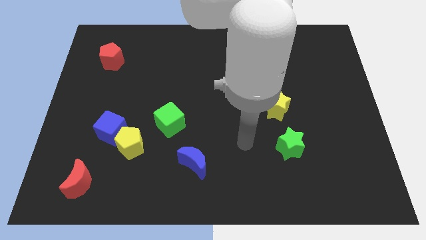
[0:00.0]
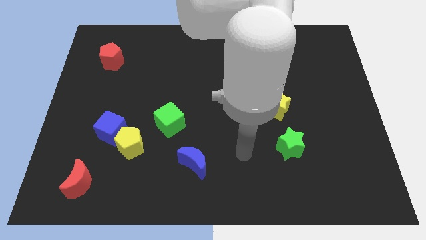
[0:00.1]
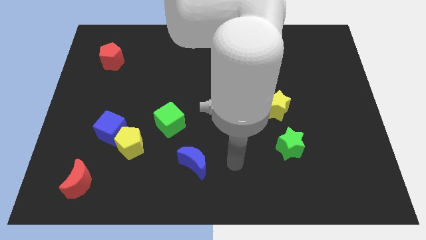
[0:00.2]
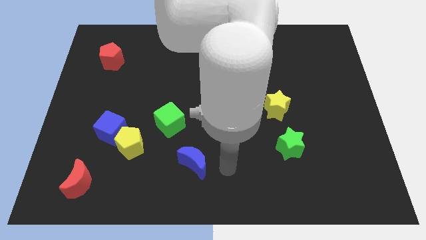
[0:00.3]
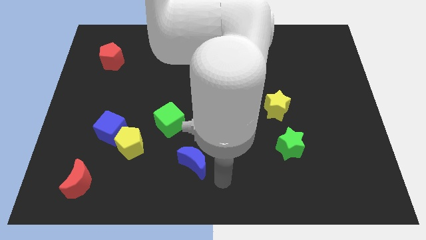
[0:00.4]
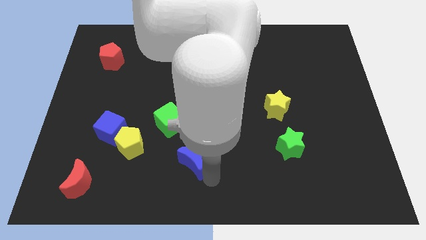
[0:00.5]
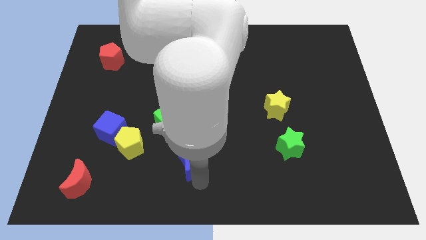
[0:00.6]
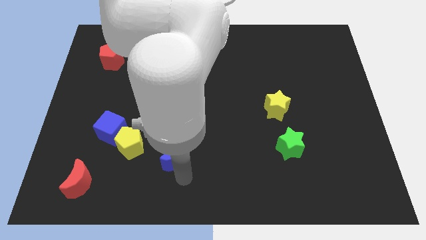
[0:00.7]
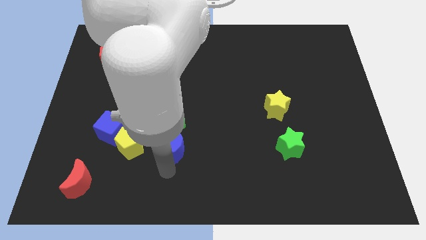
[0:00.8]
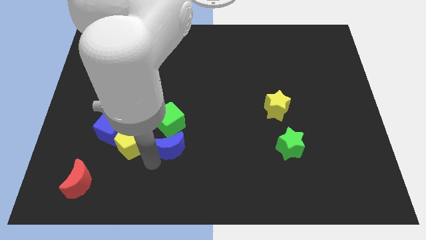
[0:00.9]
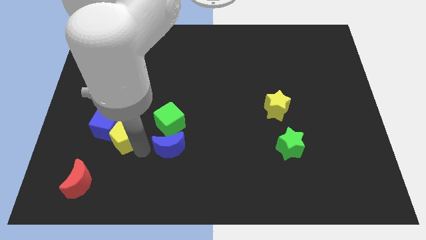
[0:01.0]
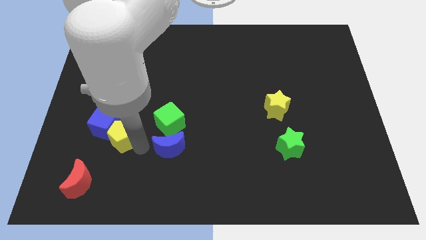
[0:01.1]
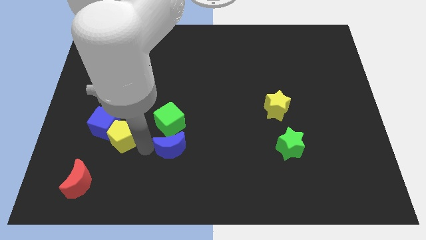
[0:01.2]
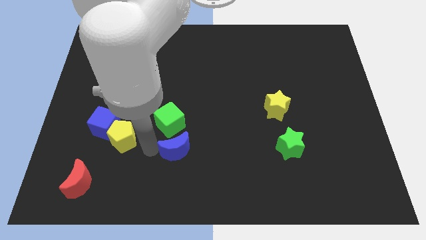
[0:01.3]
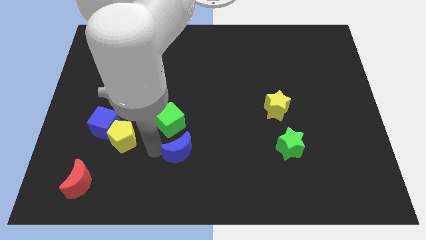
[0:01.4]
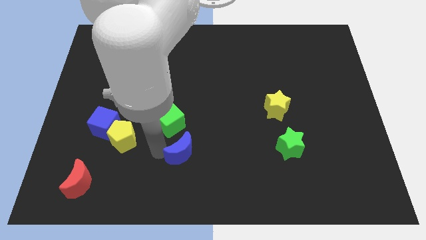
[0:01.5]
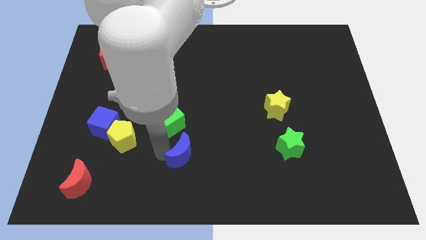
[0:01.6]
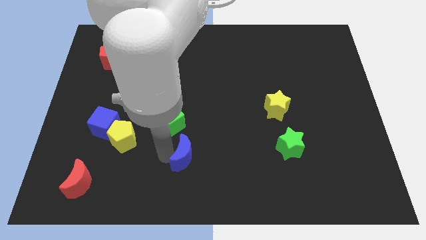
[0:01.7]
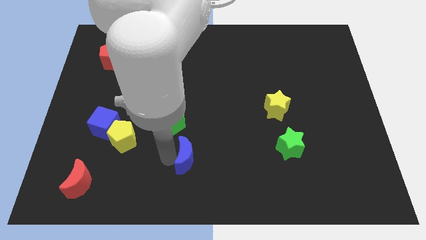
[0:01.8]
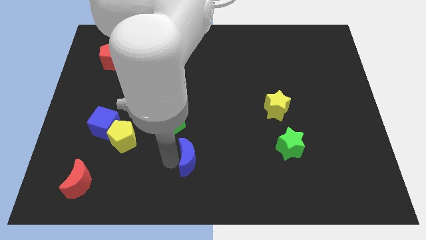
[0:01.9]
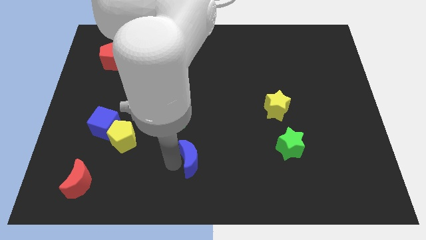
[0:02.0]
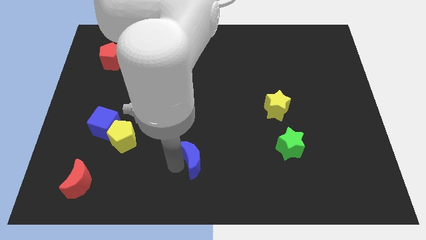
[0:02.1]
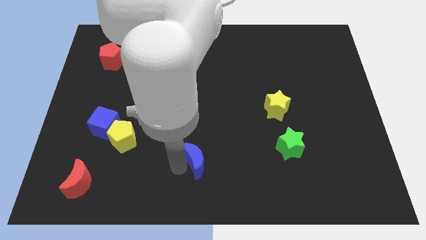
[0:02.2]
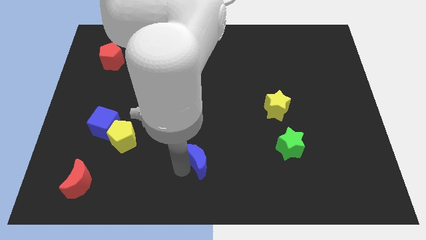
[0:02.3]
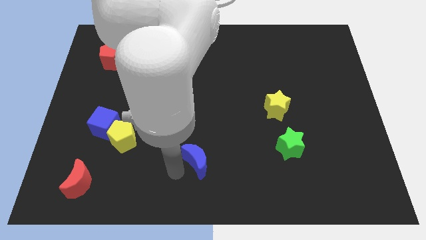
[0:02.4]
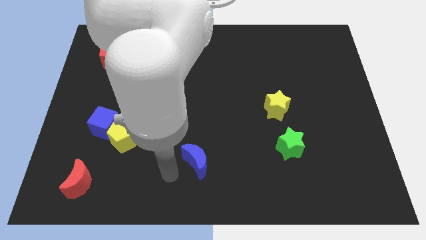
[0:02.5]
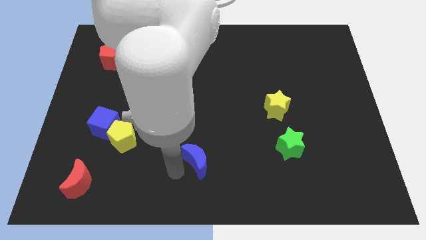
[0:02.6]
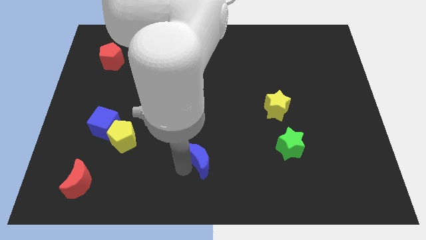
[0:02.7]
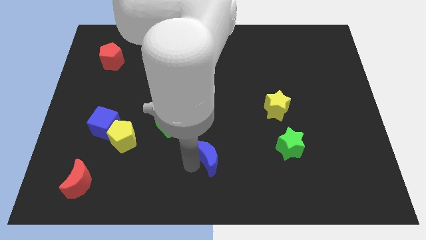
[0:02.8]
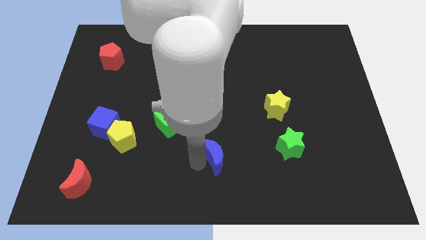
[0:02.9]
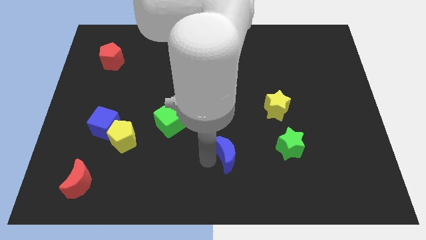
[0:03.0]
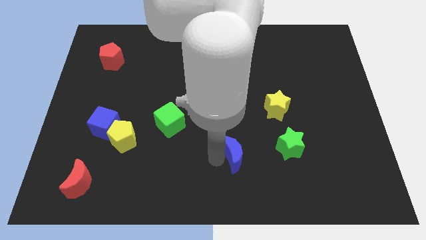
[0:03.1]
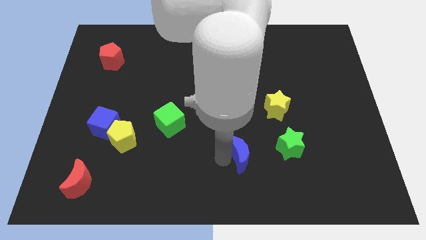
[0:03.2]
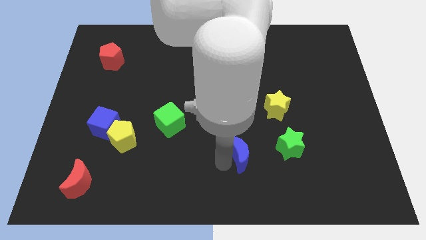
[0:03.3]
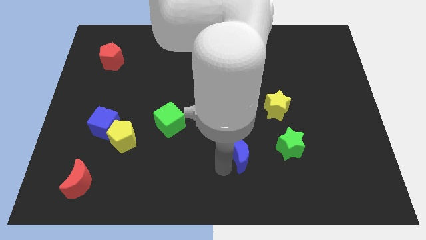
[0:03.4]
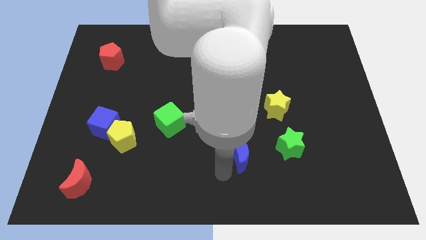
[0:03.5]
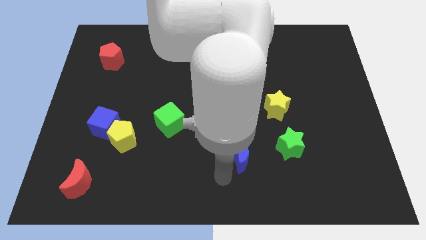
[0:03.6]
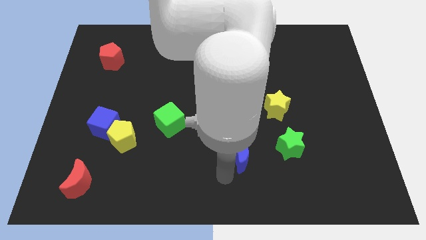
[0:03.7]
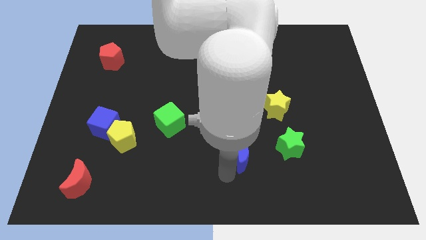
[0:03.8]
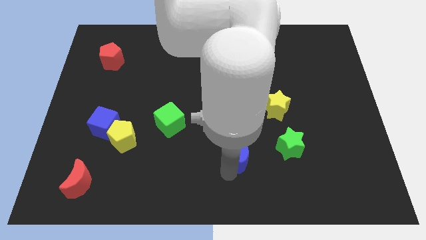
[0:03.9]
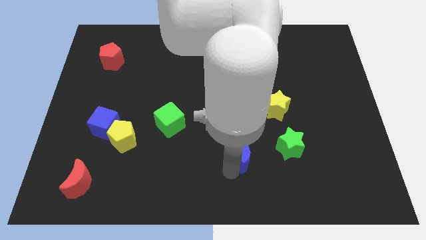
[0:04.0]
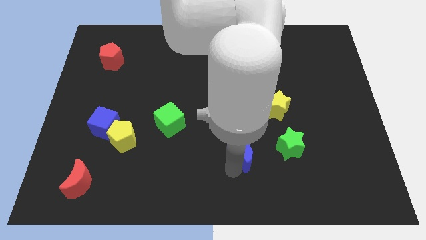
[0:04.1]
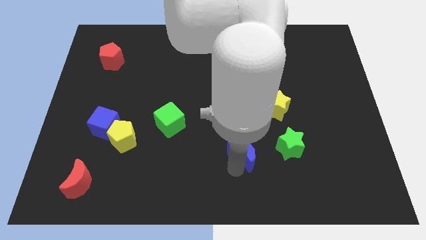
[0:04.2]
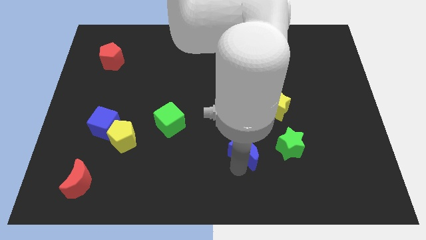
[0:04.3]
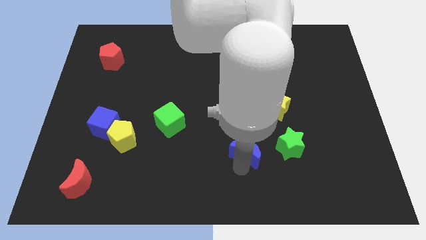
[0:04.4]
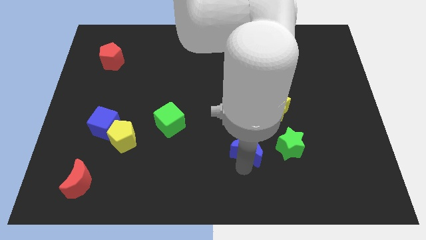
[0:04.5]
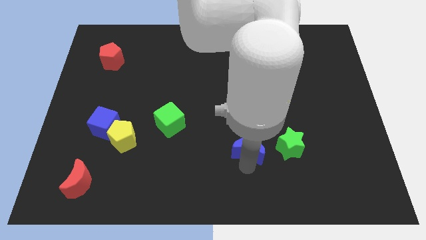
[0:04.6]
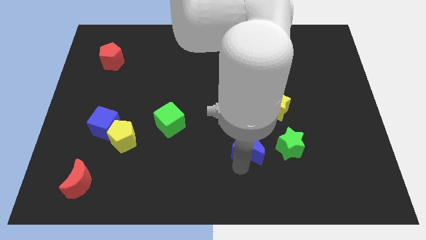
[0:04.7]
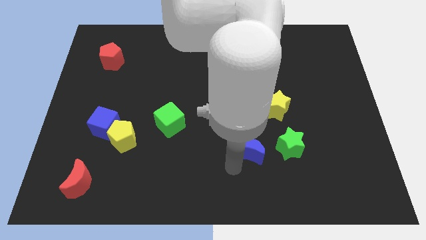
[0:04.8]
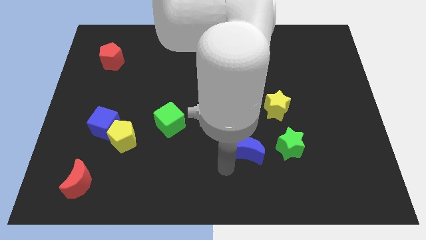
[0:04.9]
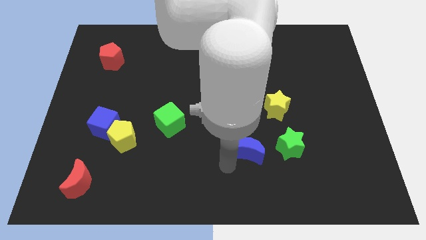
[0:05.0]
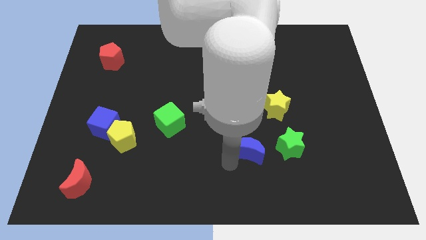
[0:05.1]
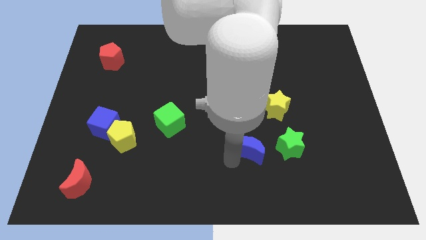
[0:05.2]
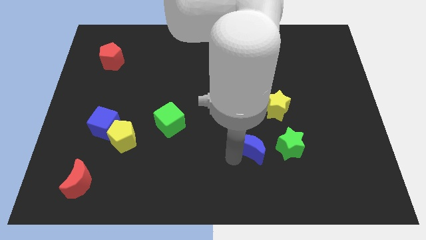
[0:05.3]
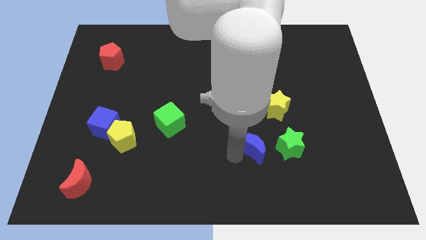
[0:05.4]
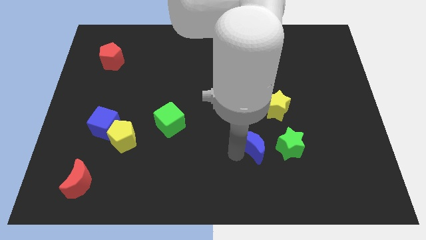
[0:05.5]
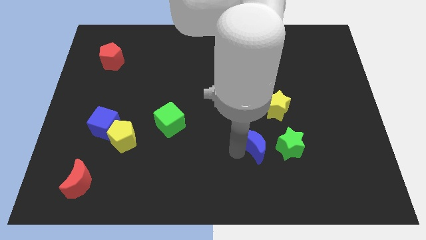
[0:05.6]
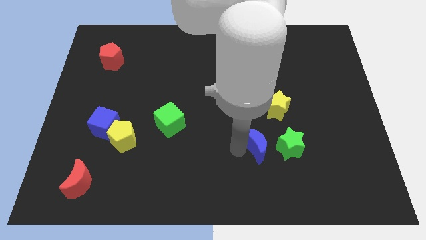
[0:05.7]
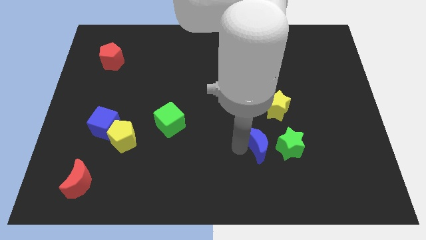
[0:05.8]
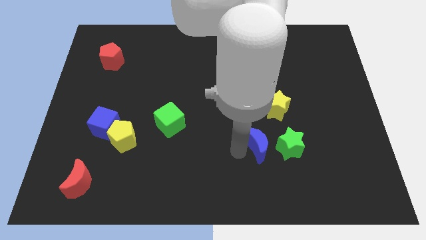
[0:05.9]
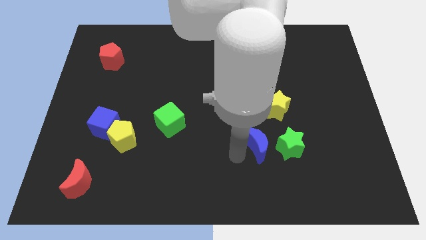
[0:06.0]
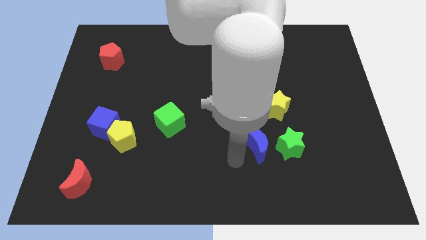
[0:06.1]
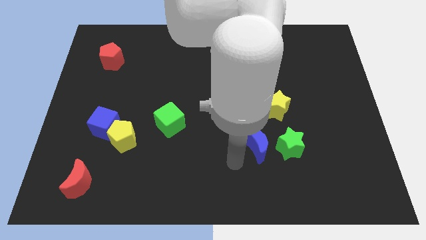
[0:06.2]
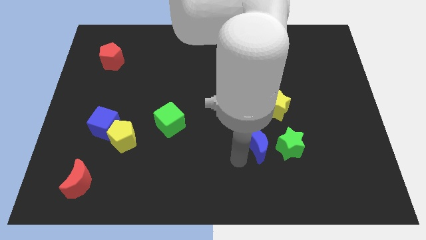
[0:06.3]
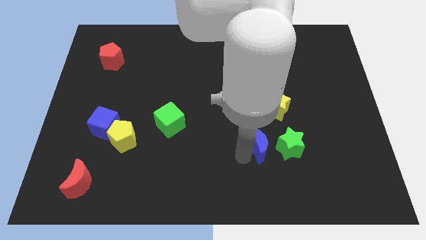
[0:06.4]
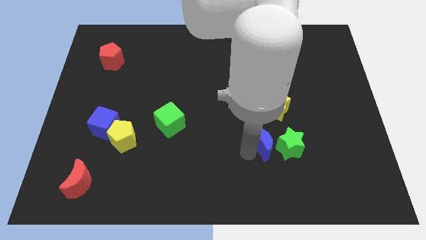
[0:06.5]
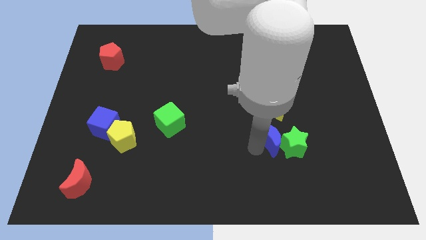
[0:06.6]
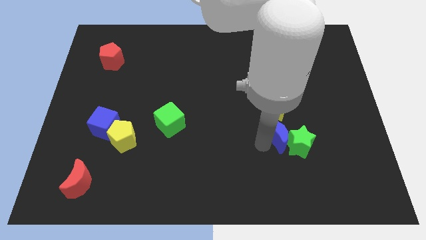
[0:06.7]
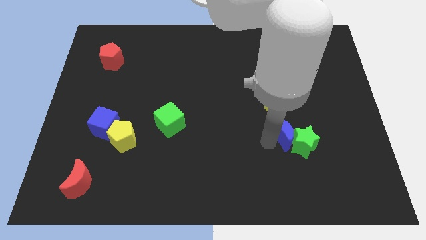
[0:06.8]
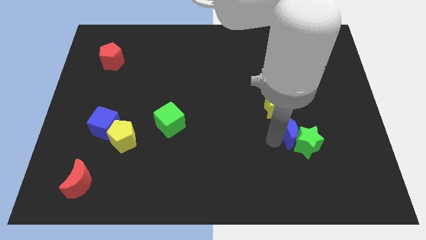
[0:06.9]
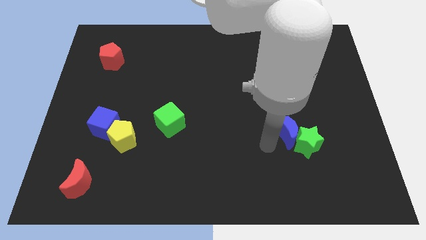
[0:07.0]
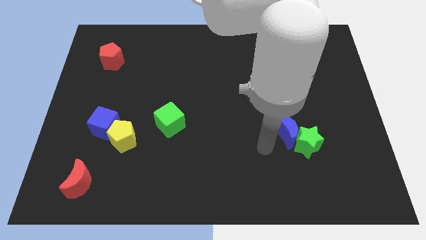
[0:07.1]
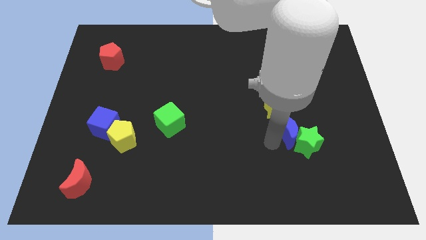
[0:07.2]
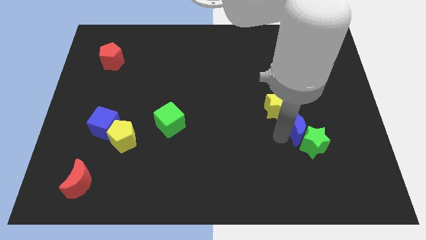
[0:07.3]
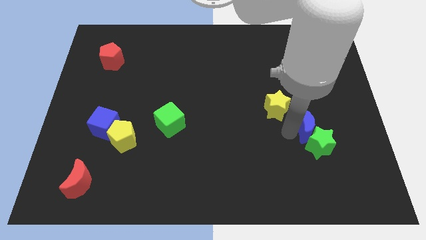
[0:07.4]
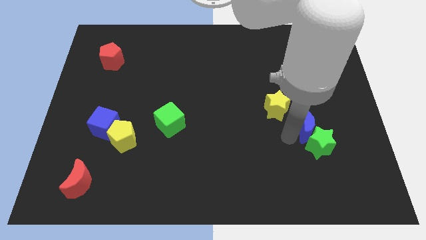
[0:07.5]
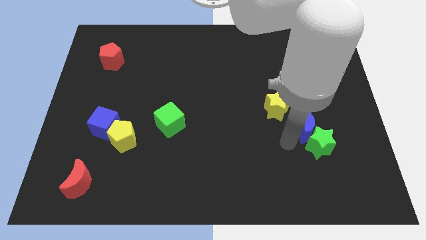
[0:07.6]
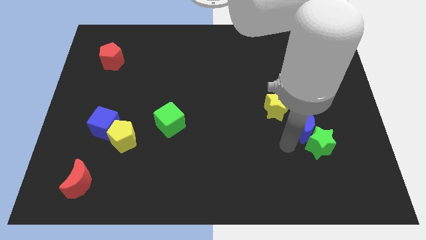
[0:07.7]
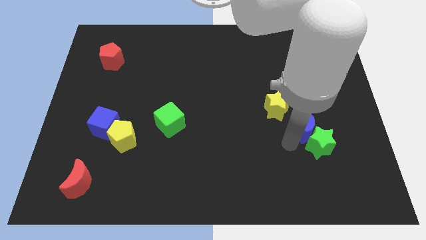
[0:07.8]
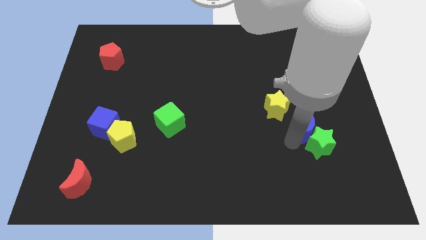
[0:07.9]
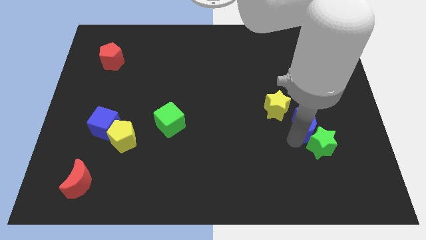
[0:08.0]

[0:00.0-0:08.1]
move the blue moon to the right side of the yellow star

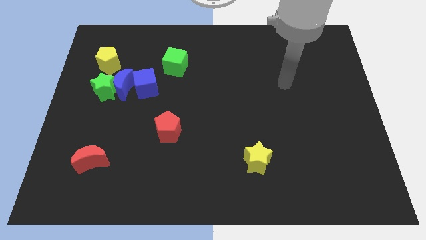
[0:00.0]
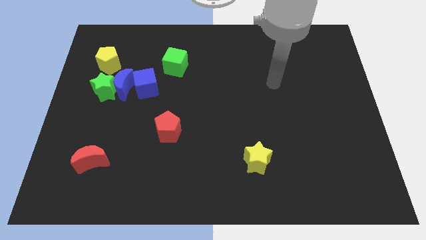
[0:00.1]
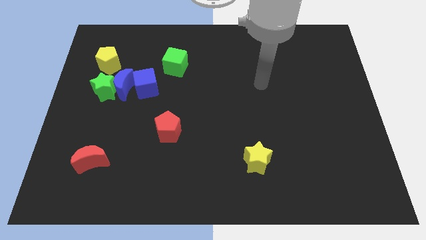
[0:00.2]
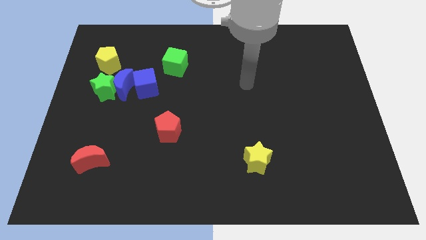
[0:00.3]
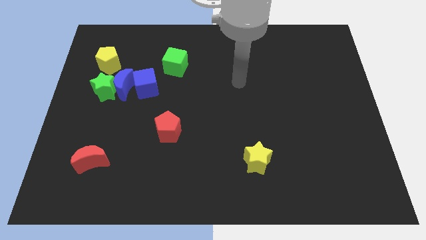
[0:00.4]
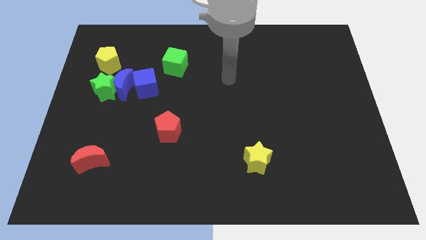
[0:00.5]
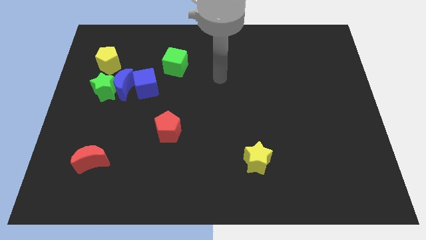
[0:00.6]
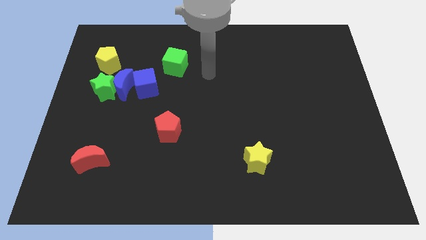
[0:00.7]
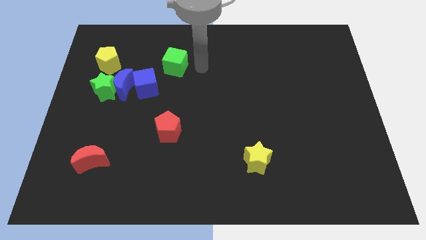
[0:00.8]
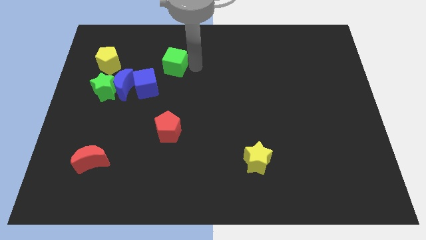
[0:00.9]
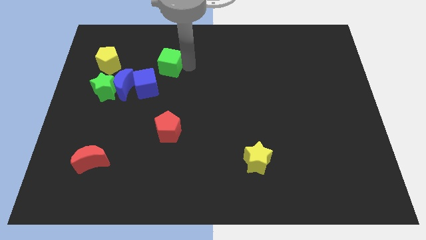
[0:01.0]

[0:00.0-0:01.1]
put the green cube to the right side of the yellow pentagon
